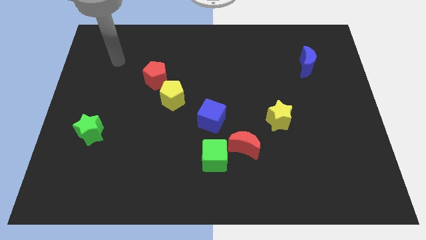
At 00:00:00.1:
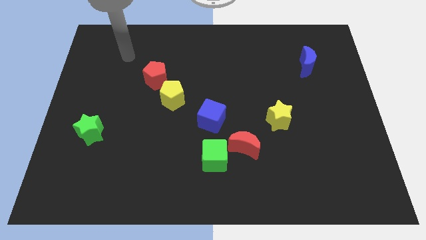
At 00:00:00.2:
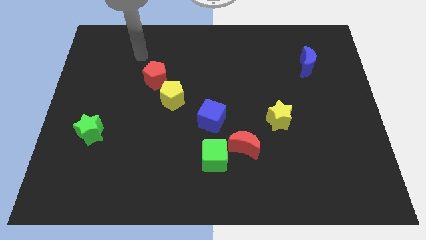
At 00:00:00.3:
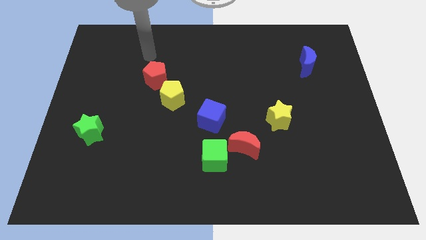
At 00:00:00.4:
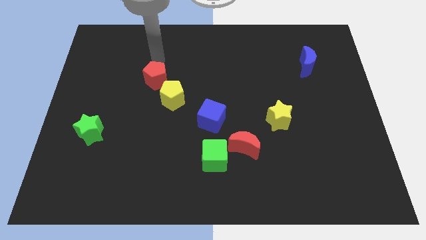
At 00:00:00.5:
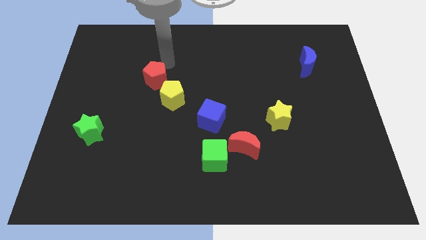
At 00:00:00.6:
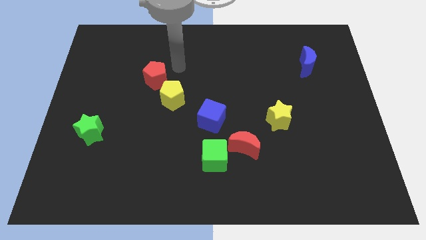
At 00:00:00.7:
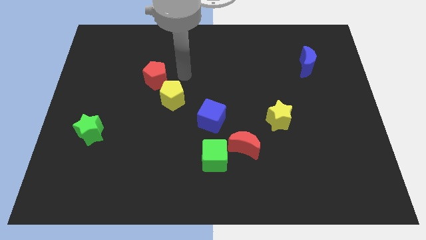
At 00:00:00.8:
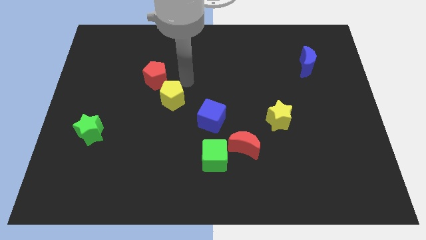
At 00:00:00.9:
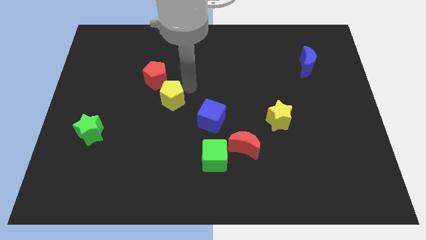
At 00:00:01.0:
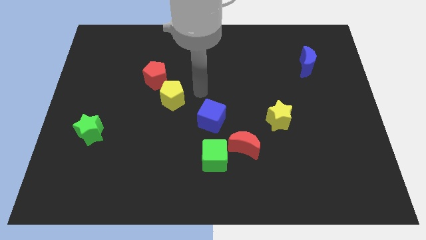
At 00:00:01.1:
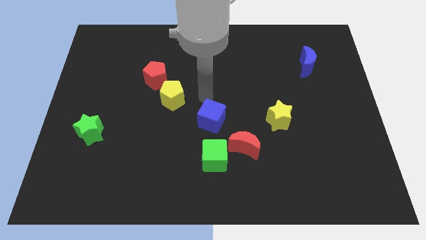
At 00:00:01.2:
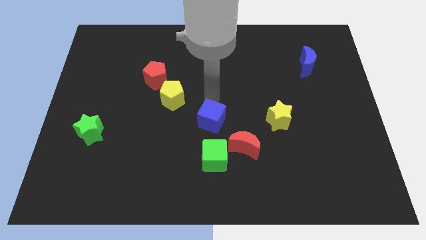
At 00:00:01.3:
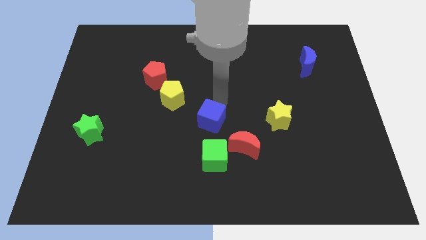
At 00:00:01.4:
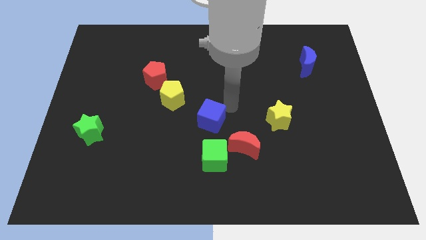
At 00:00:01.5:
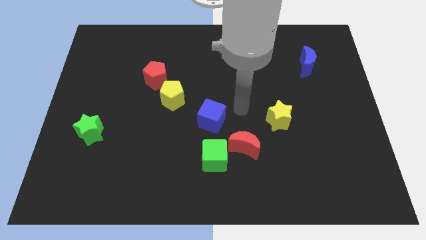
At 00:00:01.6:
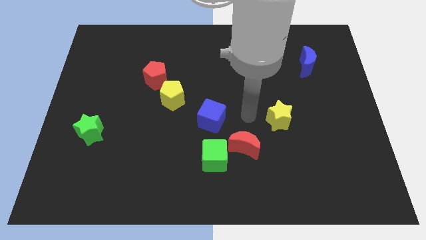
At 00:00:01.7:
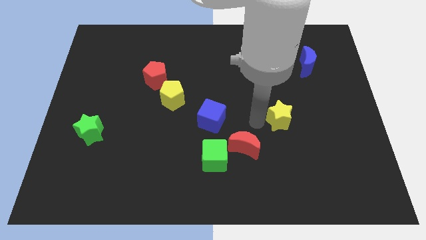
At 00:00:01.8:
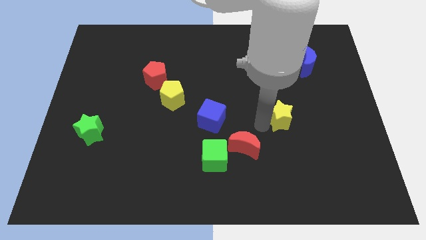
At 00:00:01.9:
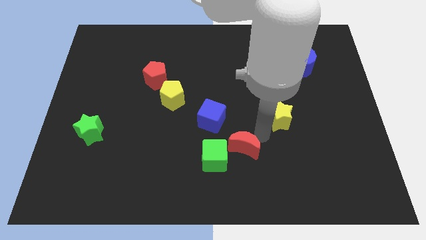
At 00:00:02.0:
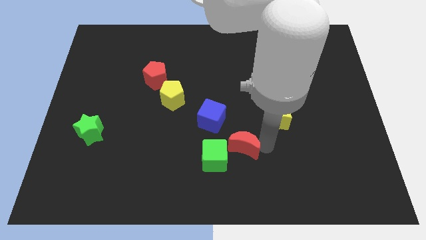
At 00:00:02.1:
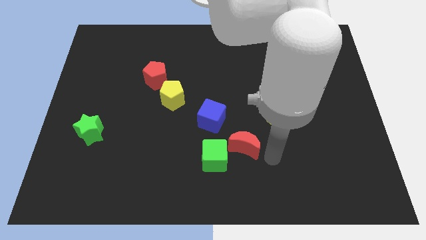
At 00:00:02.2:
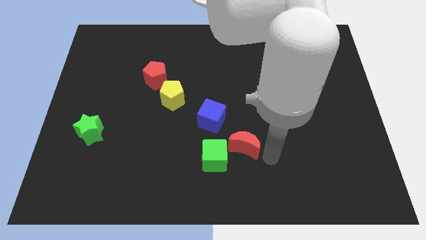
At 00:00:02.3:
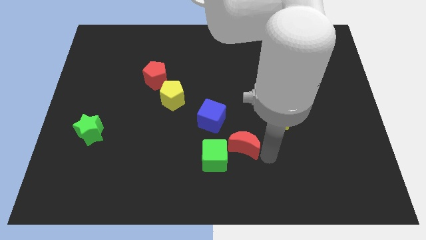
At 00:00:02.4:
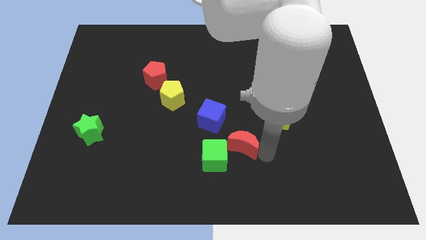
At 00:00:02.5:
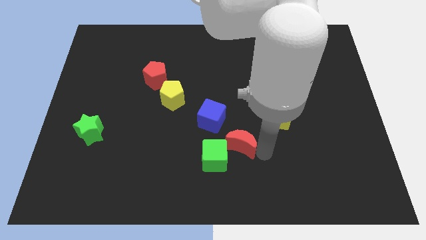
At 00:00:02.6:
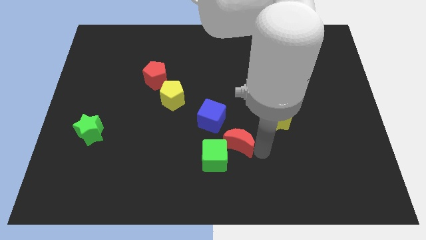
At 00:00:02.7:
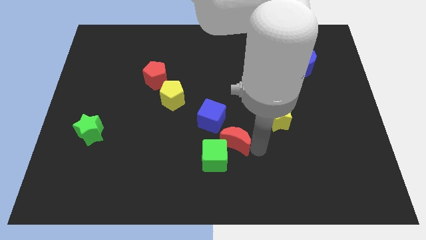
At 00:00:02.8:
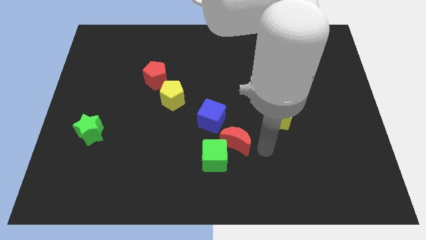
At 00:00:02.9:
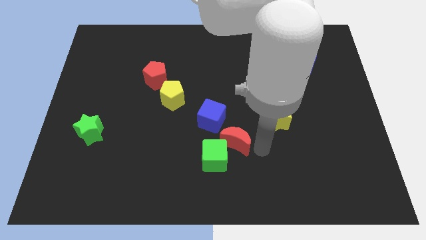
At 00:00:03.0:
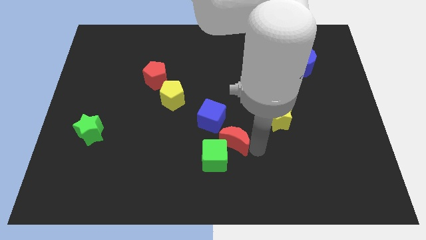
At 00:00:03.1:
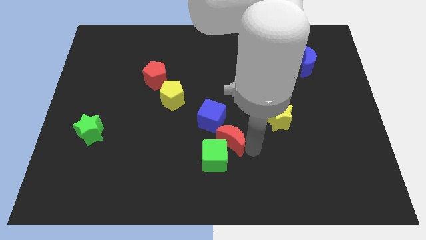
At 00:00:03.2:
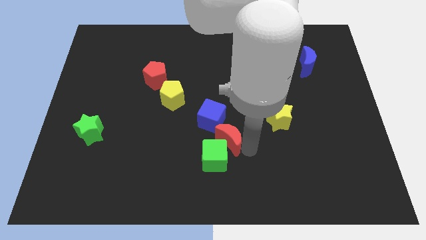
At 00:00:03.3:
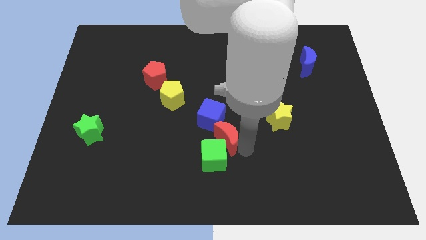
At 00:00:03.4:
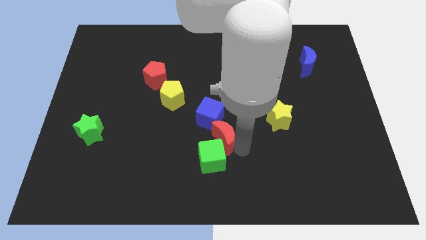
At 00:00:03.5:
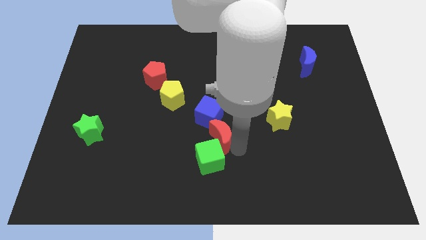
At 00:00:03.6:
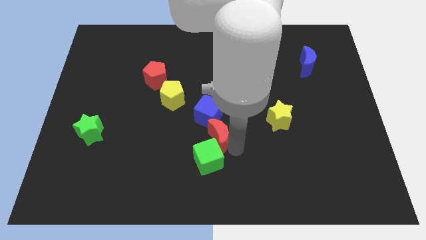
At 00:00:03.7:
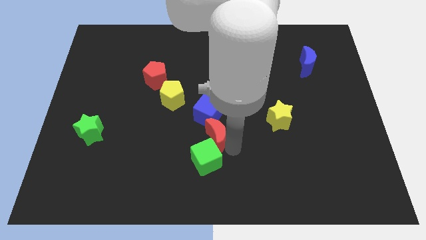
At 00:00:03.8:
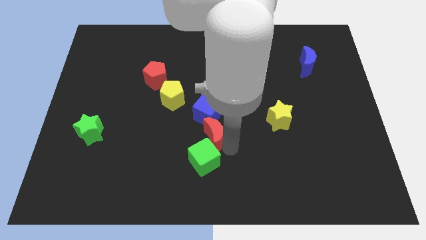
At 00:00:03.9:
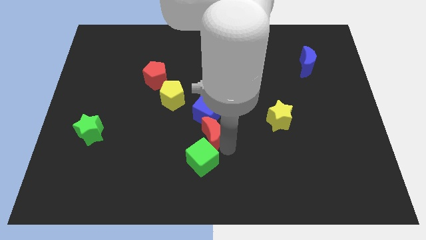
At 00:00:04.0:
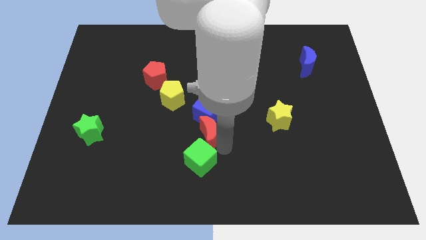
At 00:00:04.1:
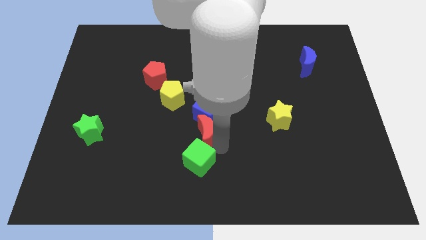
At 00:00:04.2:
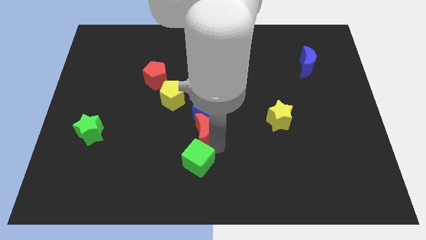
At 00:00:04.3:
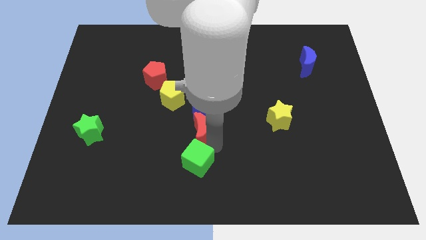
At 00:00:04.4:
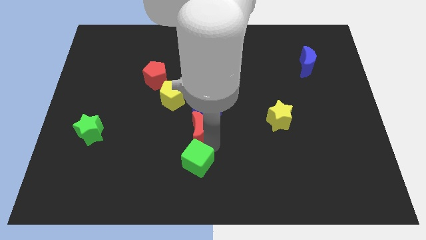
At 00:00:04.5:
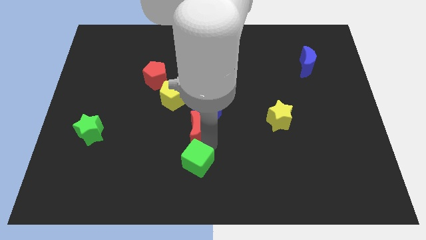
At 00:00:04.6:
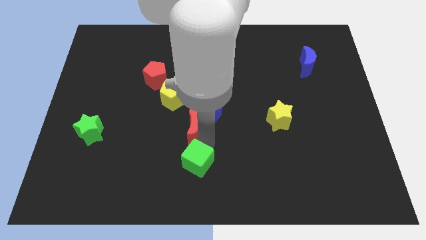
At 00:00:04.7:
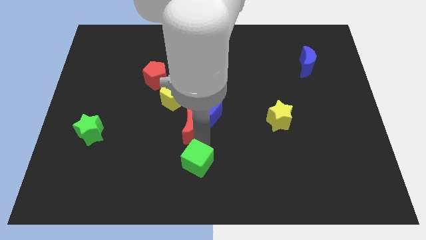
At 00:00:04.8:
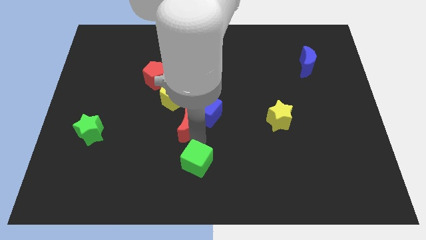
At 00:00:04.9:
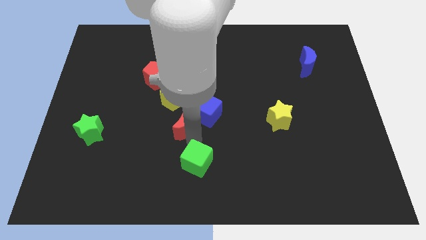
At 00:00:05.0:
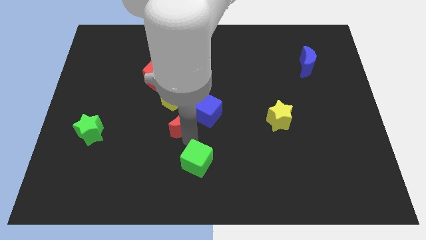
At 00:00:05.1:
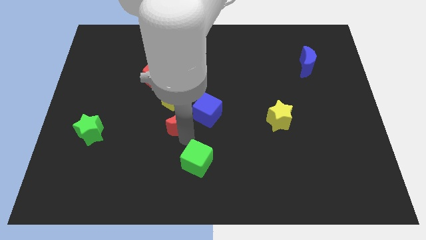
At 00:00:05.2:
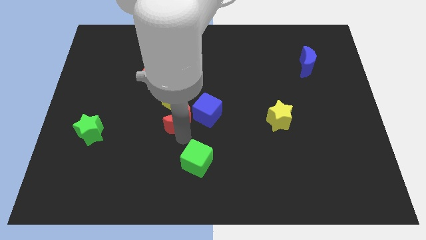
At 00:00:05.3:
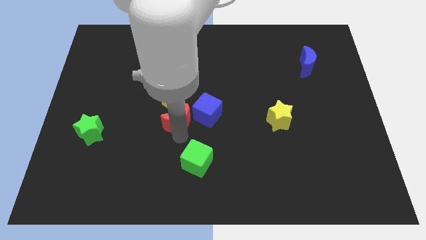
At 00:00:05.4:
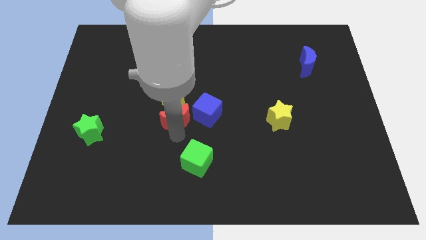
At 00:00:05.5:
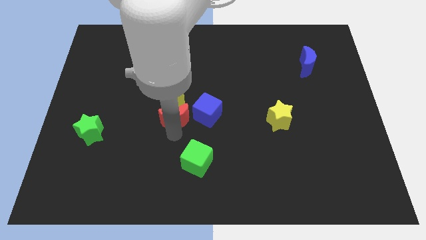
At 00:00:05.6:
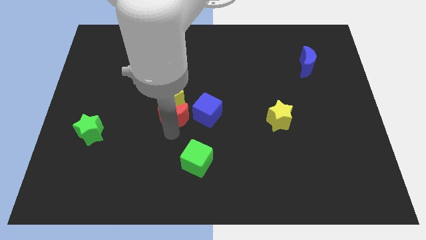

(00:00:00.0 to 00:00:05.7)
slide the red moon next to the yellow pentagon

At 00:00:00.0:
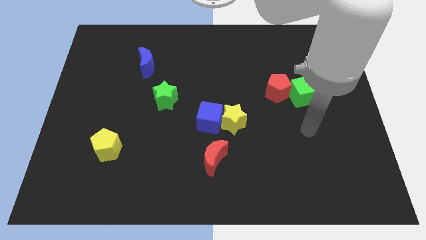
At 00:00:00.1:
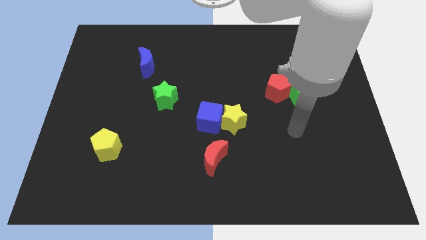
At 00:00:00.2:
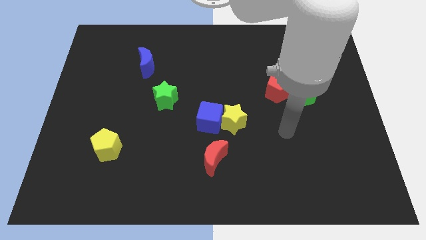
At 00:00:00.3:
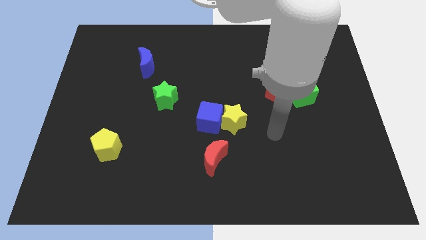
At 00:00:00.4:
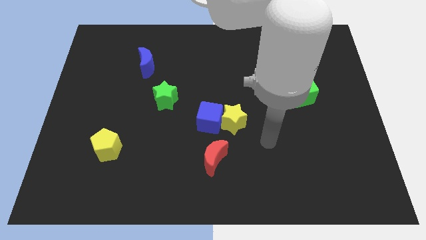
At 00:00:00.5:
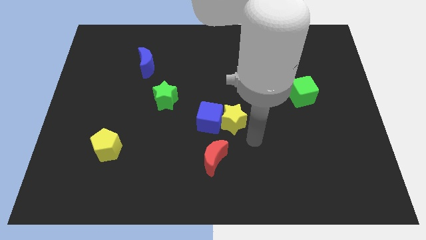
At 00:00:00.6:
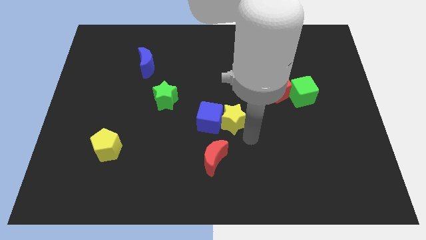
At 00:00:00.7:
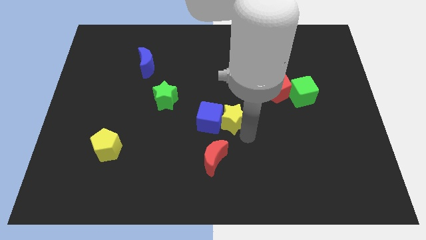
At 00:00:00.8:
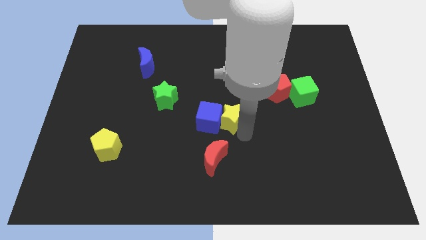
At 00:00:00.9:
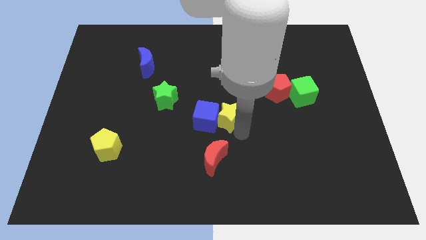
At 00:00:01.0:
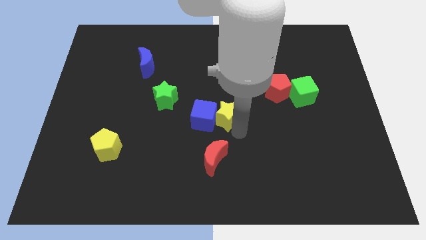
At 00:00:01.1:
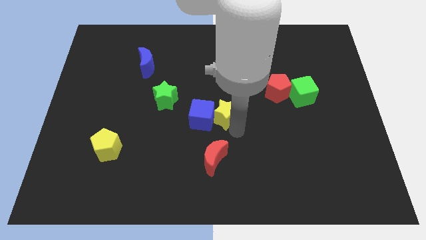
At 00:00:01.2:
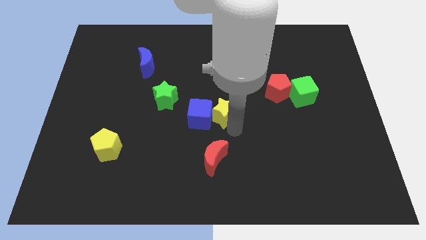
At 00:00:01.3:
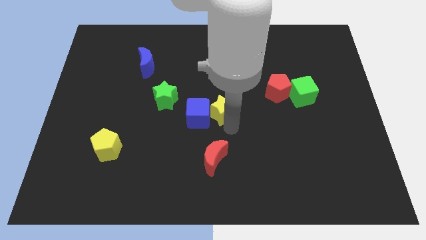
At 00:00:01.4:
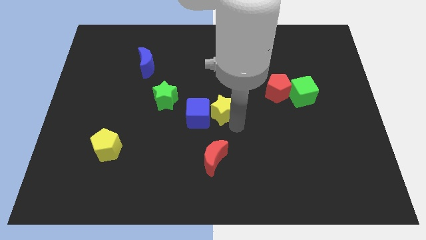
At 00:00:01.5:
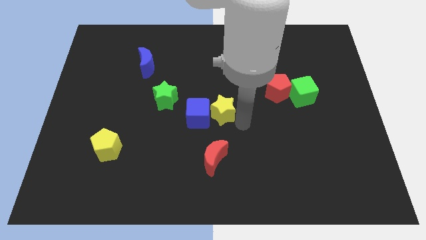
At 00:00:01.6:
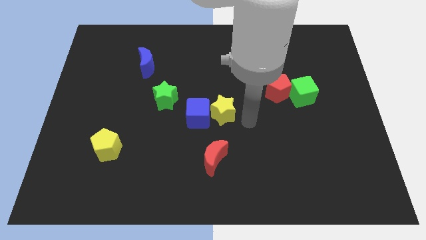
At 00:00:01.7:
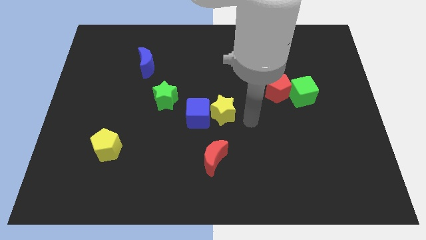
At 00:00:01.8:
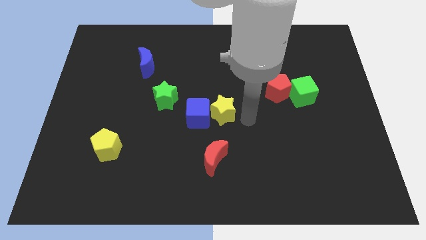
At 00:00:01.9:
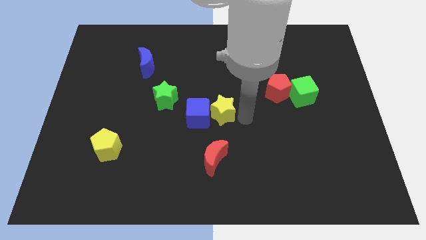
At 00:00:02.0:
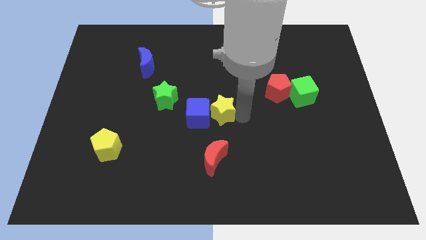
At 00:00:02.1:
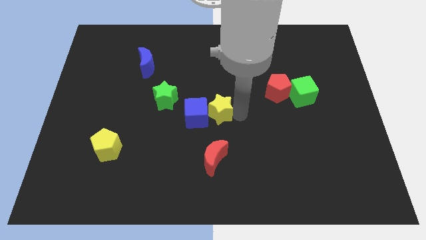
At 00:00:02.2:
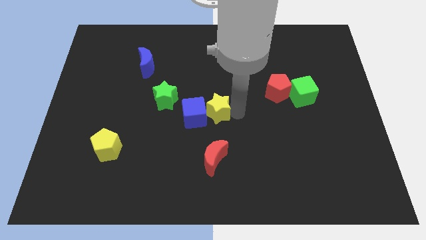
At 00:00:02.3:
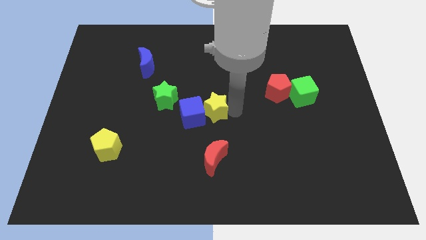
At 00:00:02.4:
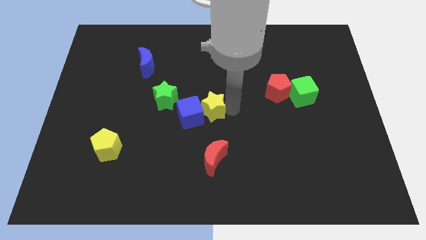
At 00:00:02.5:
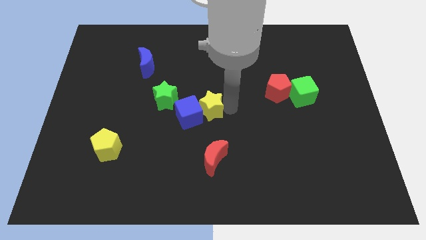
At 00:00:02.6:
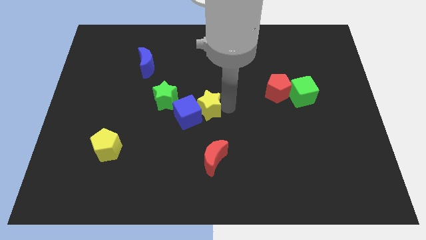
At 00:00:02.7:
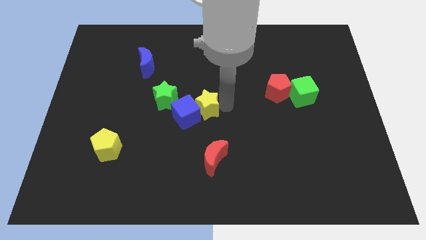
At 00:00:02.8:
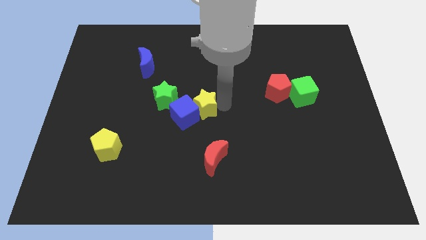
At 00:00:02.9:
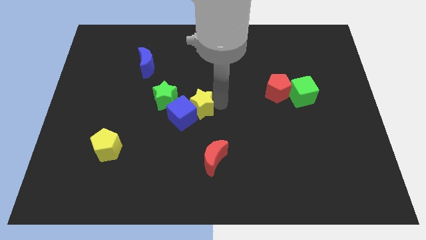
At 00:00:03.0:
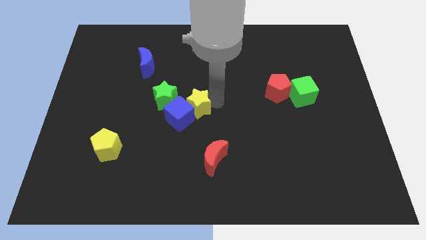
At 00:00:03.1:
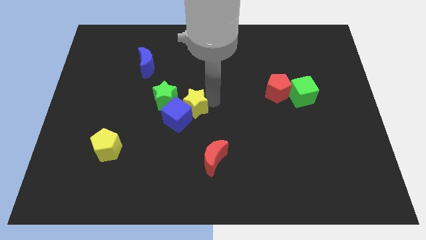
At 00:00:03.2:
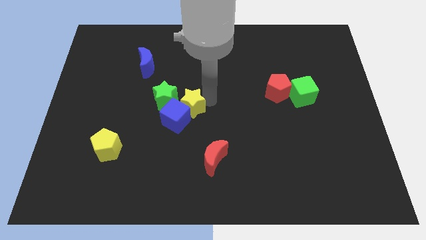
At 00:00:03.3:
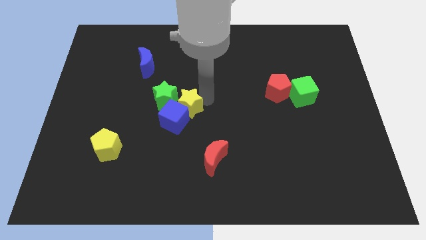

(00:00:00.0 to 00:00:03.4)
put the yellow star close to the green star
